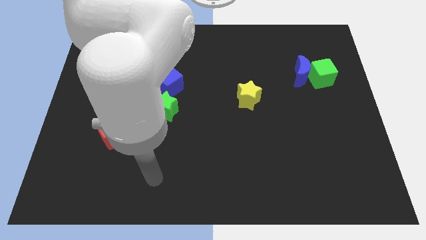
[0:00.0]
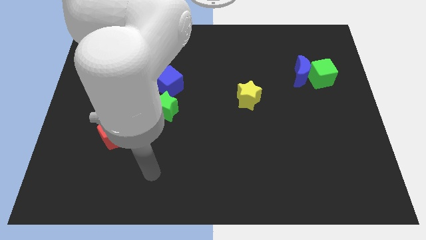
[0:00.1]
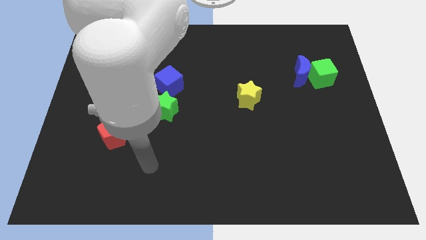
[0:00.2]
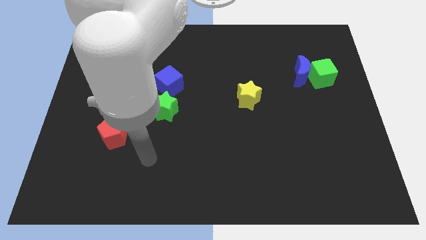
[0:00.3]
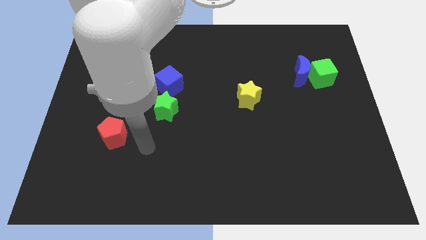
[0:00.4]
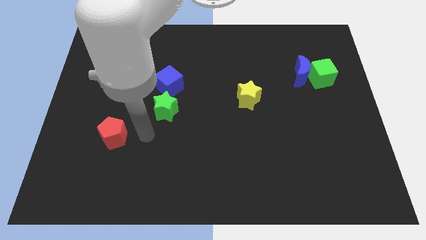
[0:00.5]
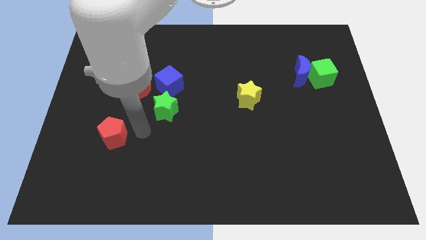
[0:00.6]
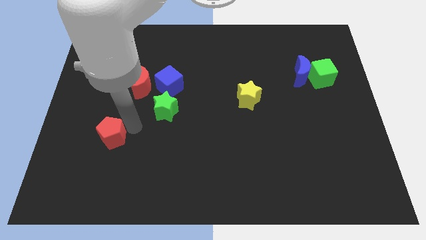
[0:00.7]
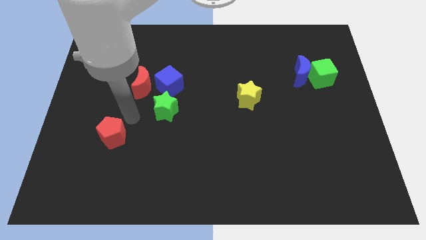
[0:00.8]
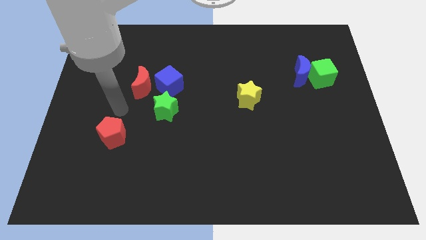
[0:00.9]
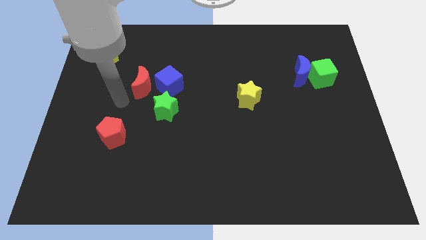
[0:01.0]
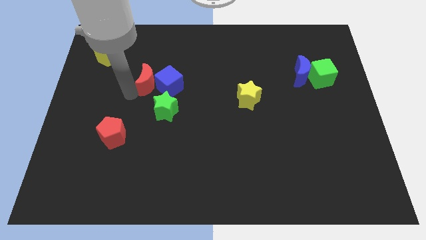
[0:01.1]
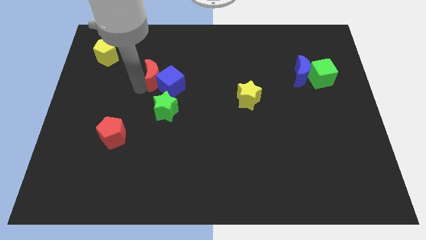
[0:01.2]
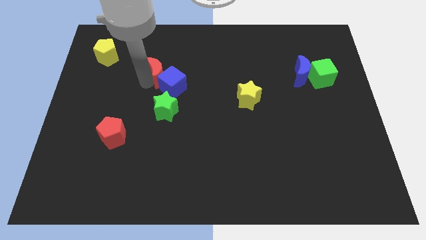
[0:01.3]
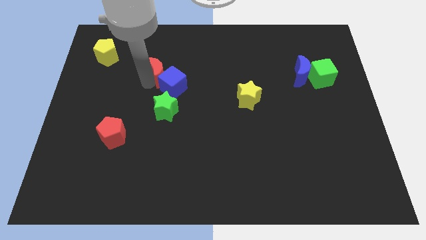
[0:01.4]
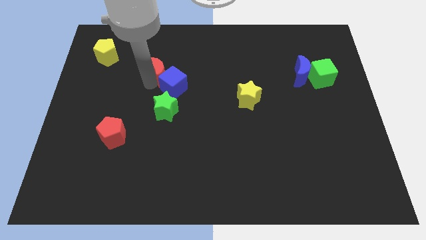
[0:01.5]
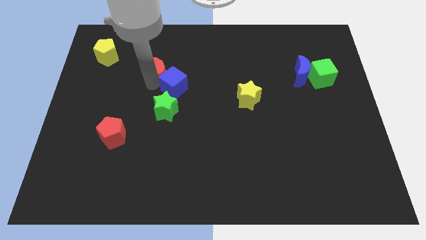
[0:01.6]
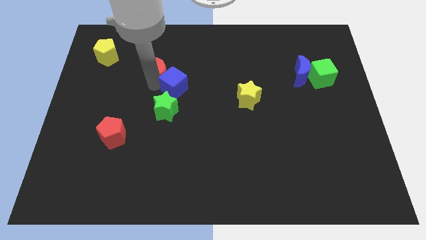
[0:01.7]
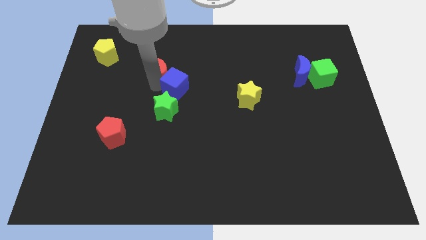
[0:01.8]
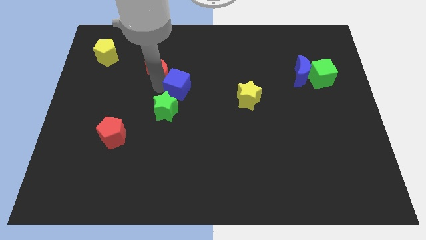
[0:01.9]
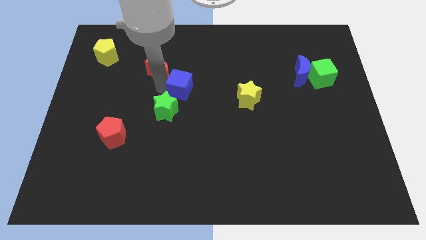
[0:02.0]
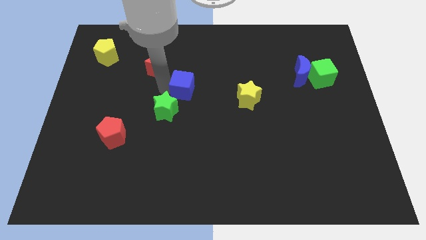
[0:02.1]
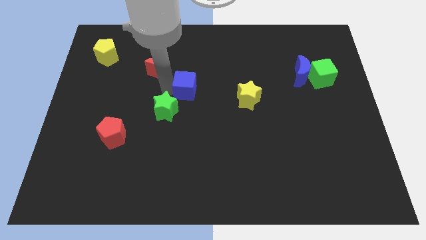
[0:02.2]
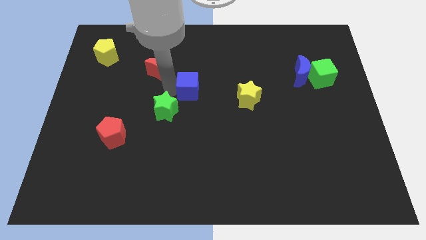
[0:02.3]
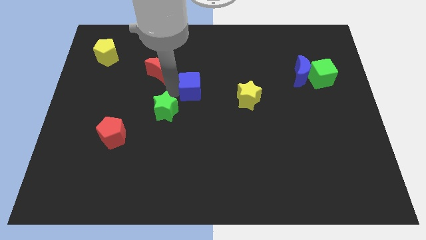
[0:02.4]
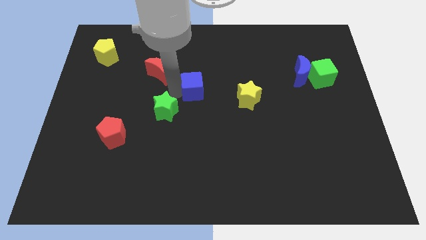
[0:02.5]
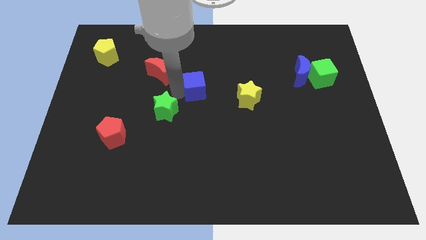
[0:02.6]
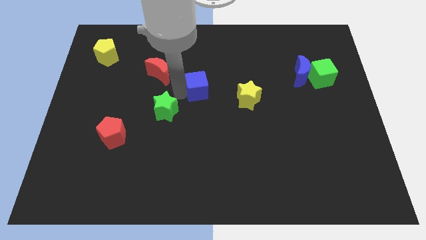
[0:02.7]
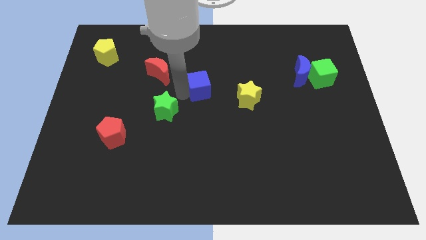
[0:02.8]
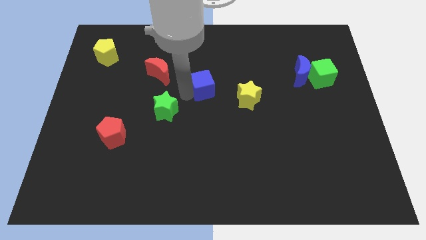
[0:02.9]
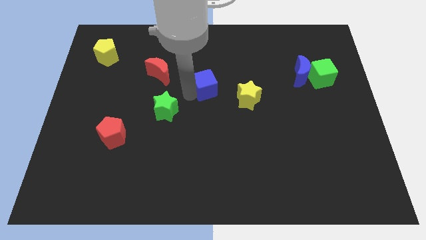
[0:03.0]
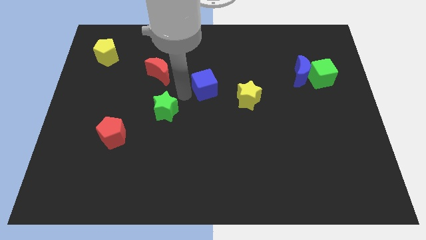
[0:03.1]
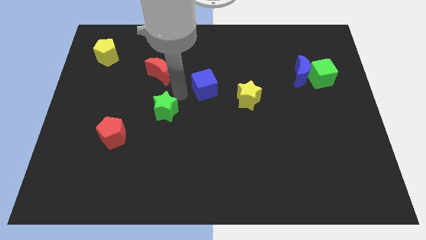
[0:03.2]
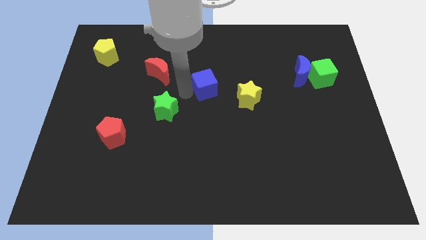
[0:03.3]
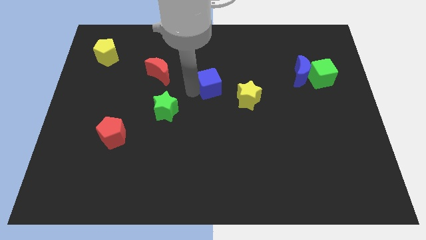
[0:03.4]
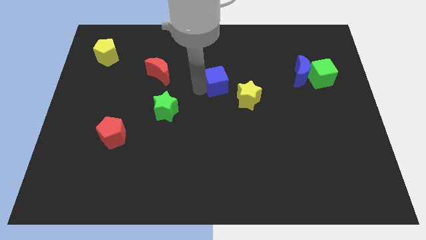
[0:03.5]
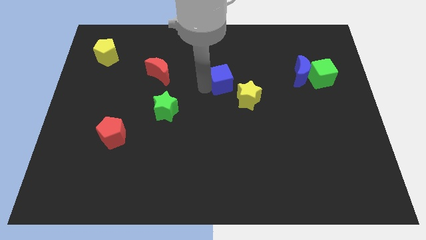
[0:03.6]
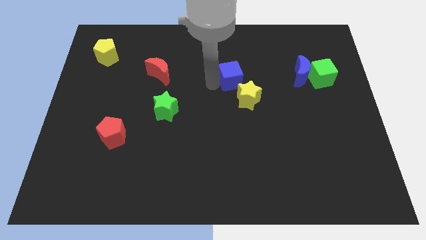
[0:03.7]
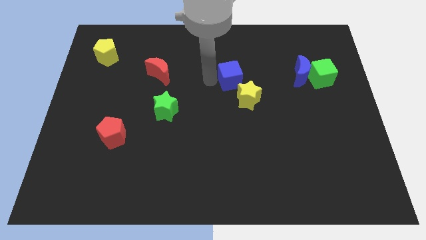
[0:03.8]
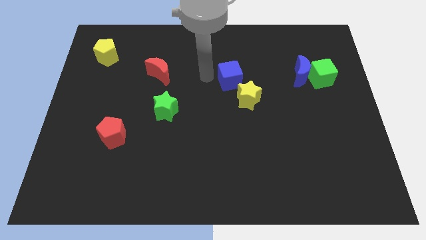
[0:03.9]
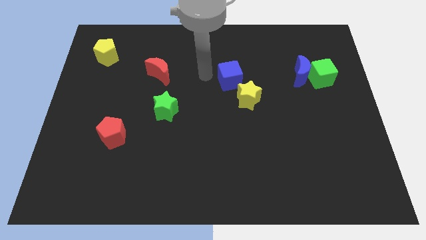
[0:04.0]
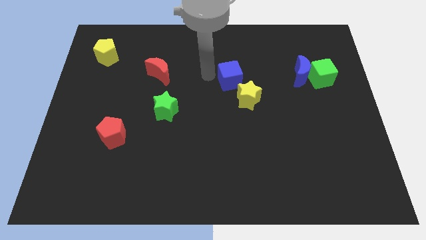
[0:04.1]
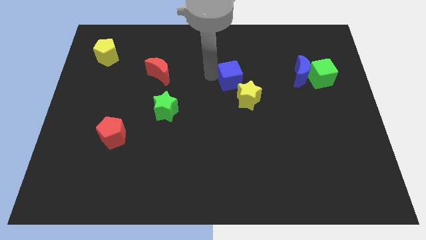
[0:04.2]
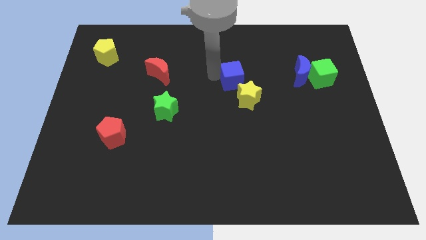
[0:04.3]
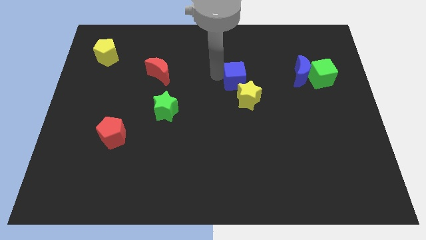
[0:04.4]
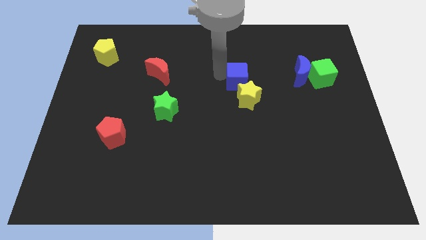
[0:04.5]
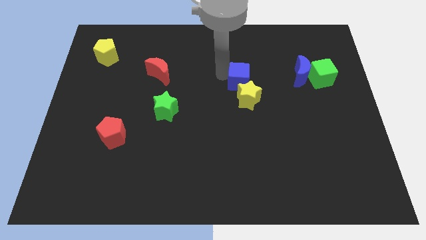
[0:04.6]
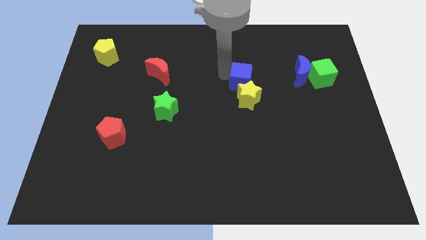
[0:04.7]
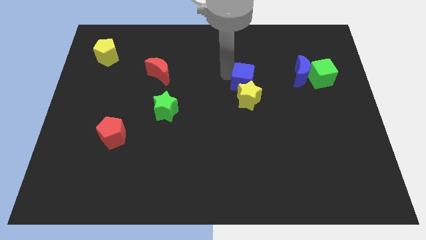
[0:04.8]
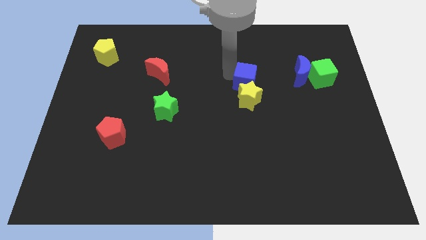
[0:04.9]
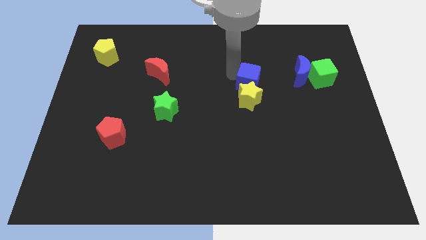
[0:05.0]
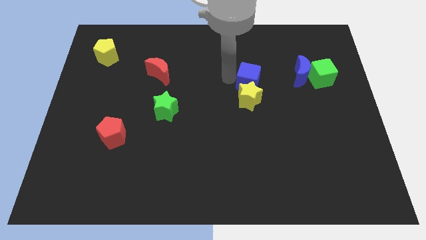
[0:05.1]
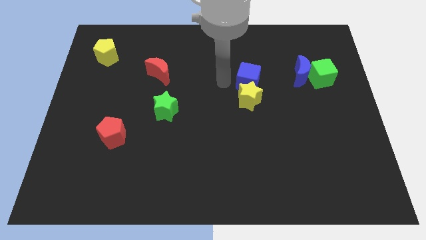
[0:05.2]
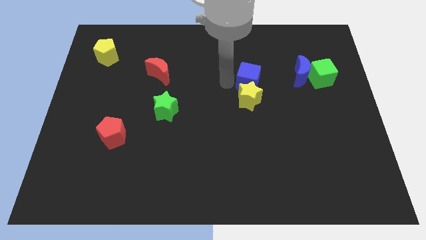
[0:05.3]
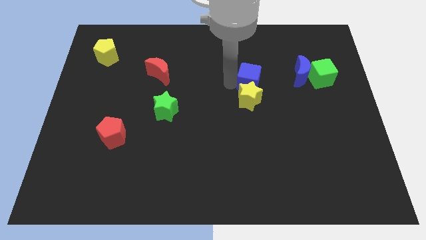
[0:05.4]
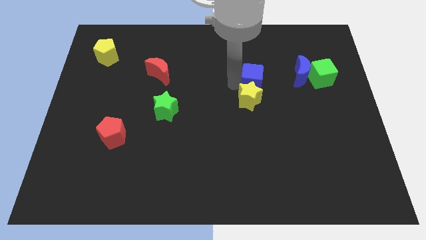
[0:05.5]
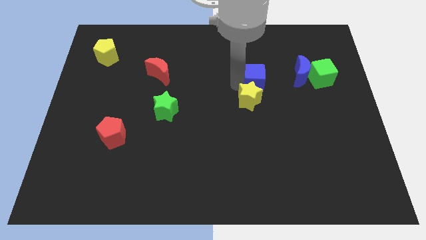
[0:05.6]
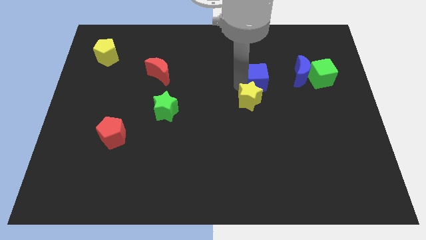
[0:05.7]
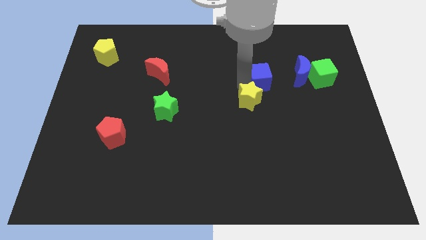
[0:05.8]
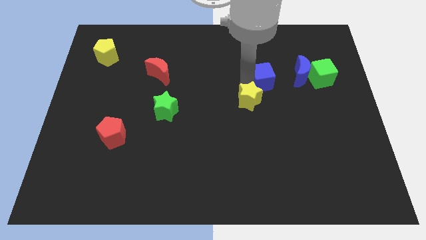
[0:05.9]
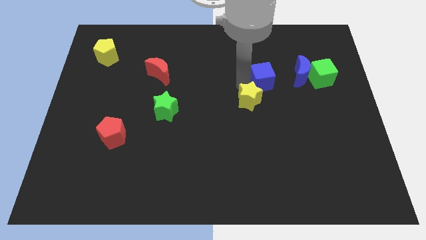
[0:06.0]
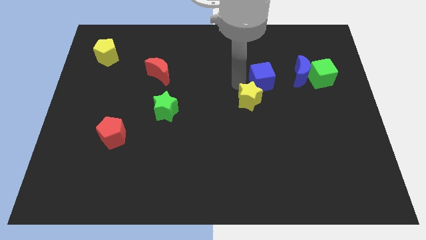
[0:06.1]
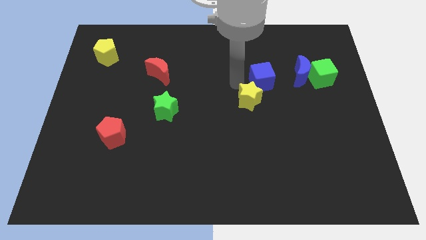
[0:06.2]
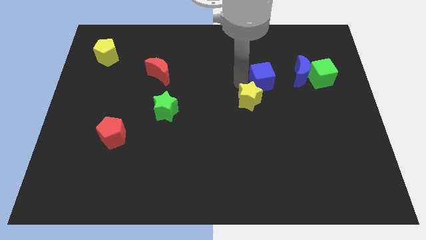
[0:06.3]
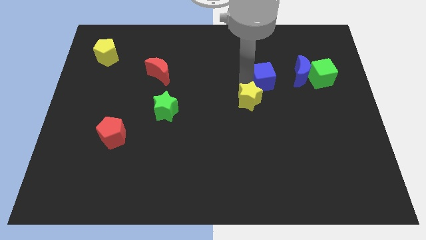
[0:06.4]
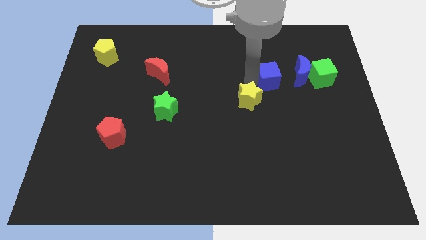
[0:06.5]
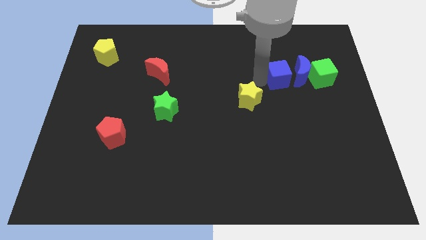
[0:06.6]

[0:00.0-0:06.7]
put the blue cube next to the blue moon
